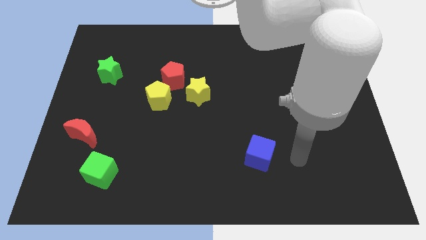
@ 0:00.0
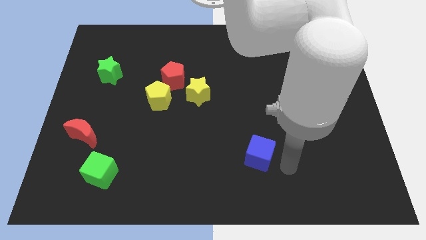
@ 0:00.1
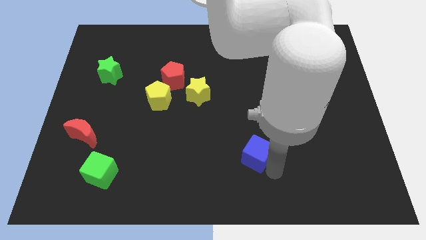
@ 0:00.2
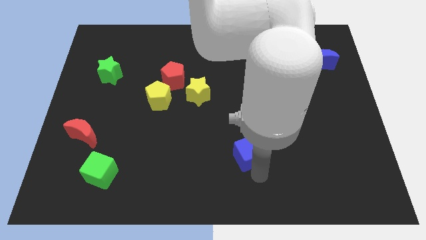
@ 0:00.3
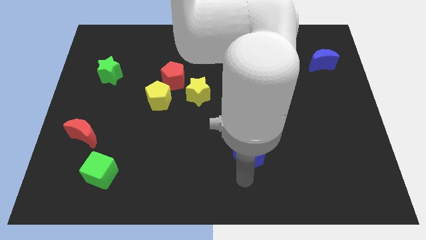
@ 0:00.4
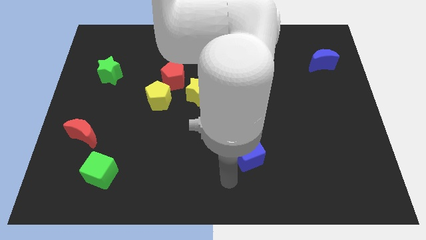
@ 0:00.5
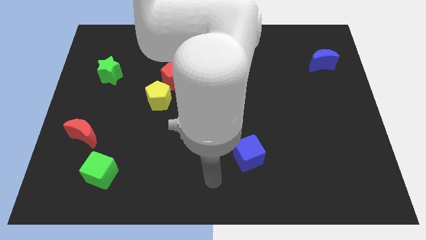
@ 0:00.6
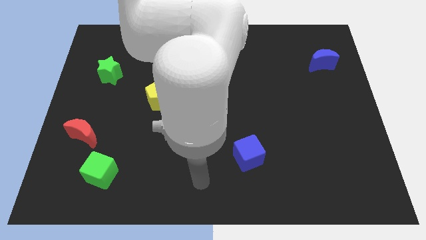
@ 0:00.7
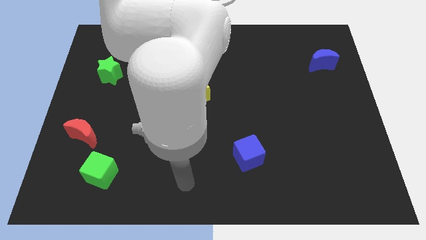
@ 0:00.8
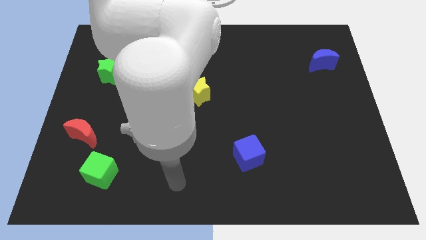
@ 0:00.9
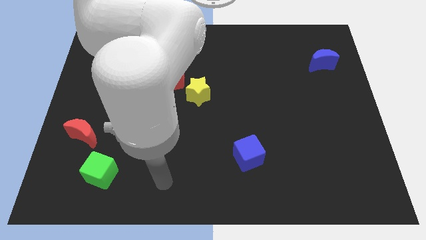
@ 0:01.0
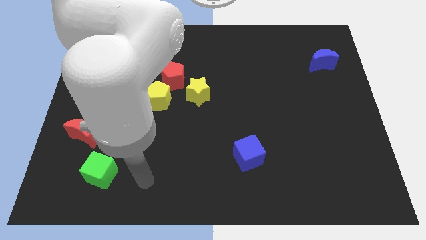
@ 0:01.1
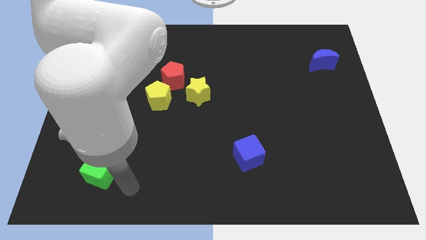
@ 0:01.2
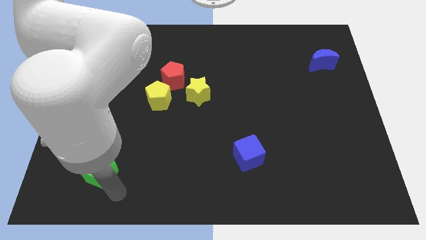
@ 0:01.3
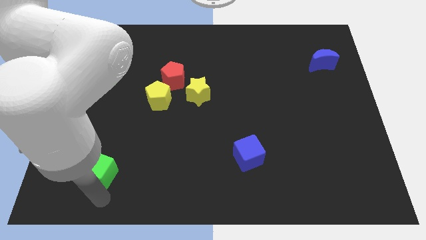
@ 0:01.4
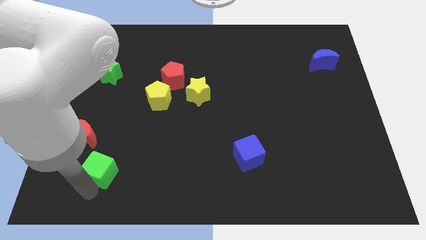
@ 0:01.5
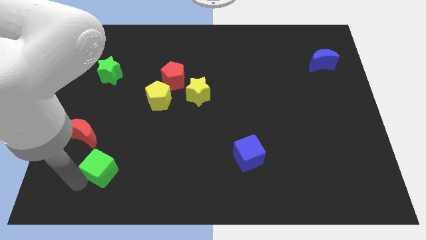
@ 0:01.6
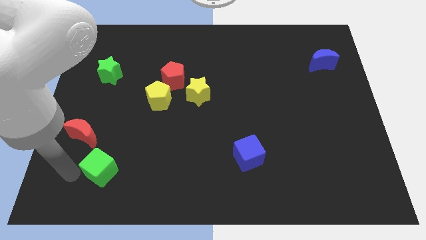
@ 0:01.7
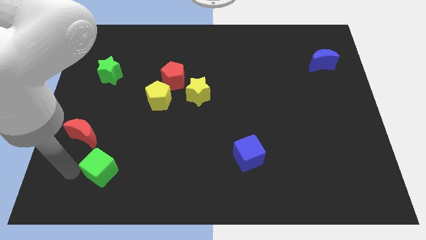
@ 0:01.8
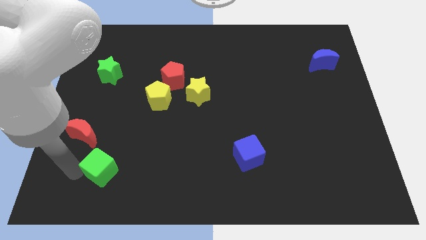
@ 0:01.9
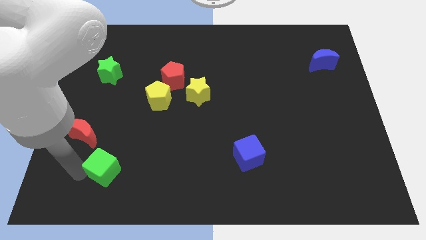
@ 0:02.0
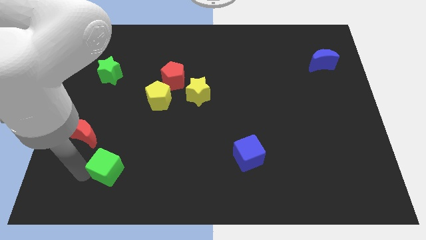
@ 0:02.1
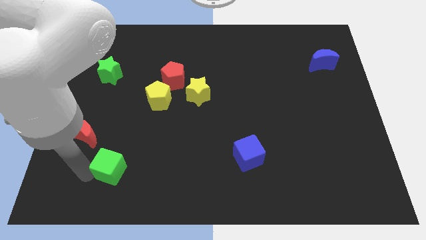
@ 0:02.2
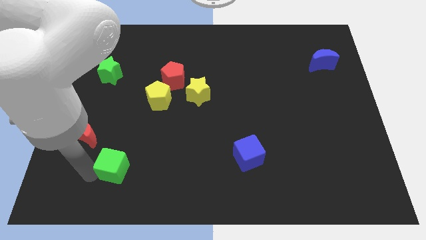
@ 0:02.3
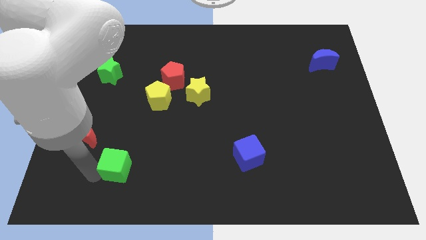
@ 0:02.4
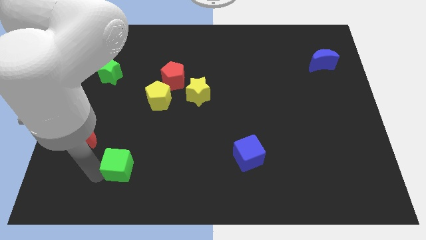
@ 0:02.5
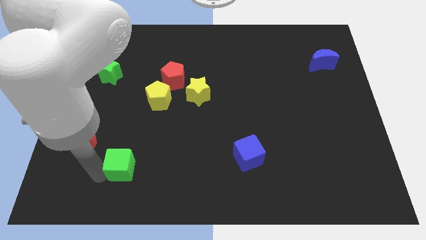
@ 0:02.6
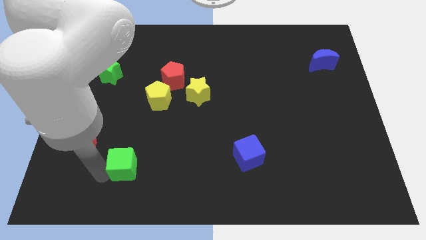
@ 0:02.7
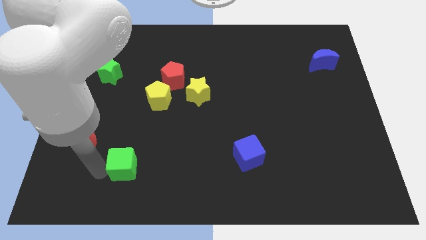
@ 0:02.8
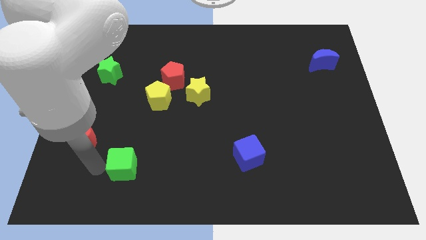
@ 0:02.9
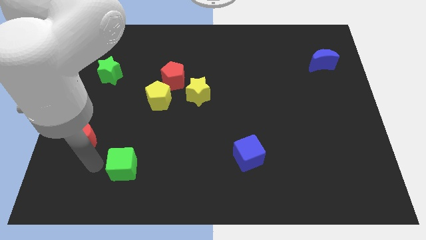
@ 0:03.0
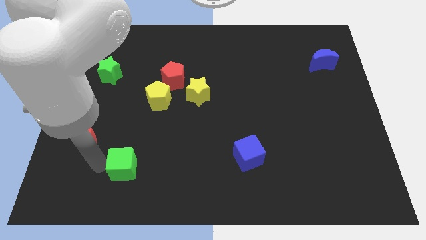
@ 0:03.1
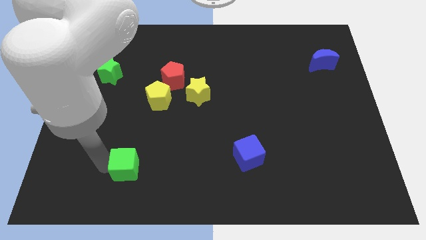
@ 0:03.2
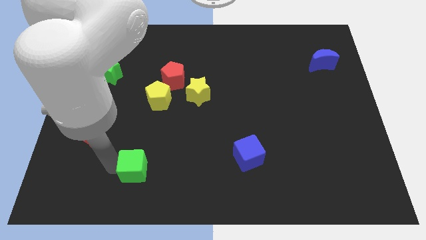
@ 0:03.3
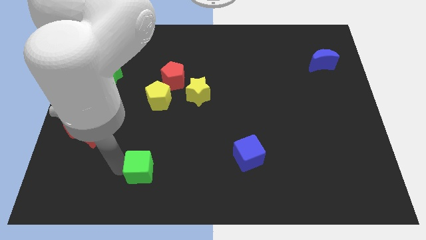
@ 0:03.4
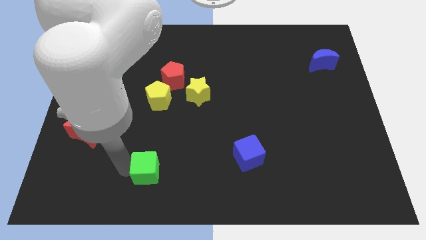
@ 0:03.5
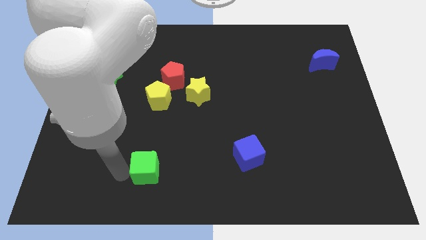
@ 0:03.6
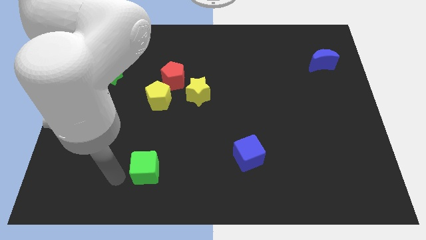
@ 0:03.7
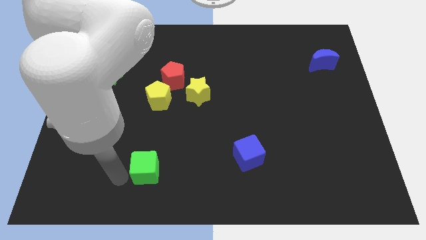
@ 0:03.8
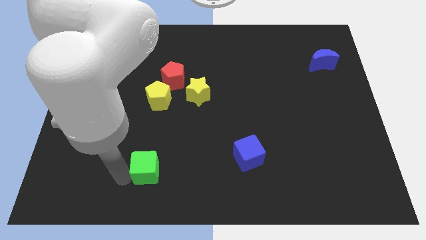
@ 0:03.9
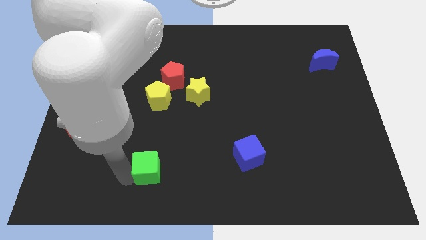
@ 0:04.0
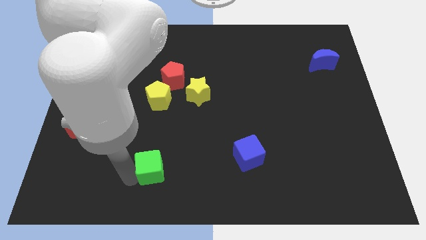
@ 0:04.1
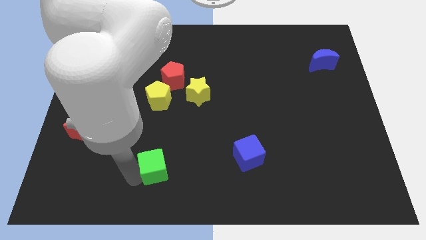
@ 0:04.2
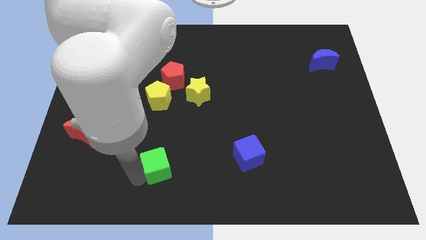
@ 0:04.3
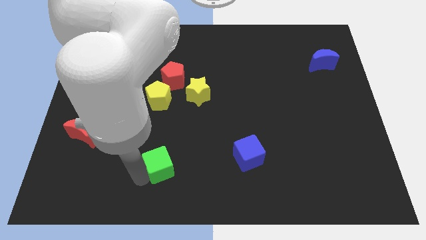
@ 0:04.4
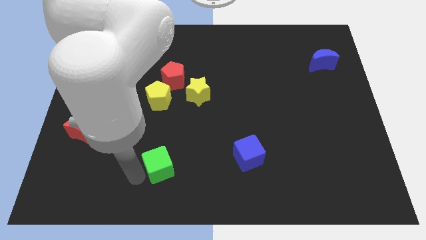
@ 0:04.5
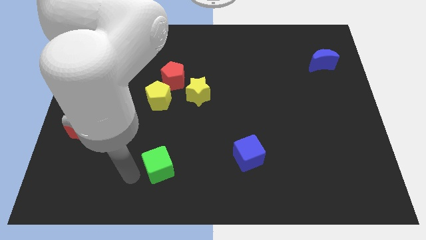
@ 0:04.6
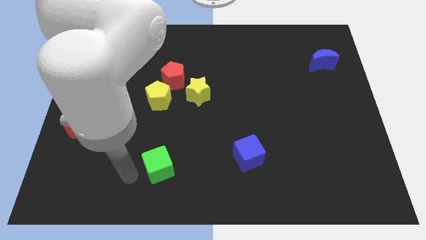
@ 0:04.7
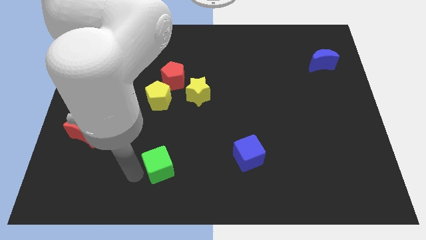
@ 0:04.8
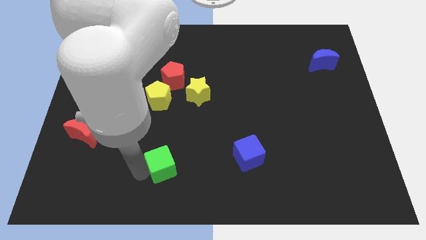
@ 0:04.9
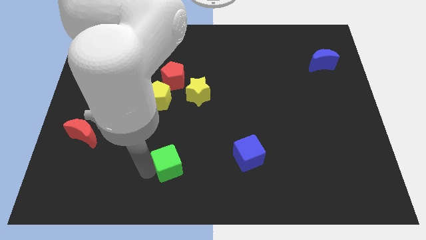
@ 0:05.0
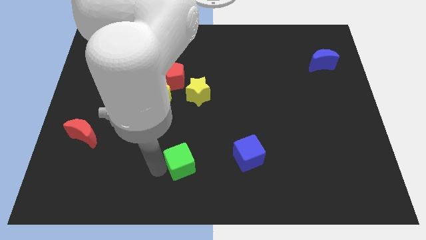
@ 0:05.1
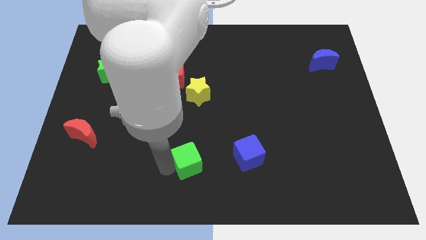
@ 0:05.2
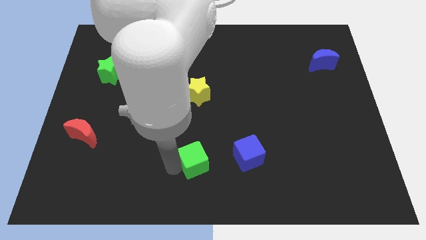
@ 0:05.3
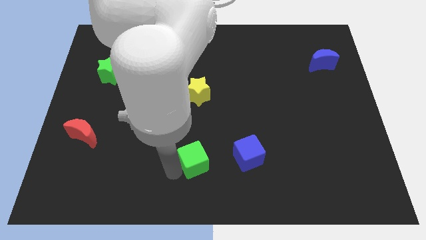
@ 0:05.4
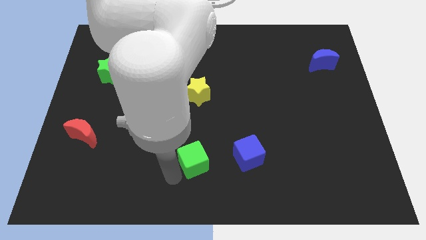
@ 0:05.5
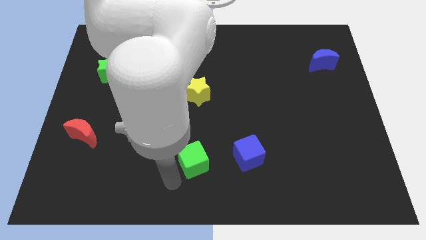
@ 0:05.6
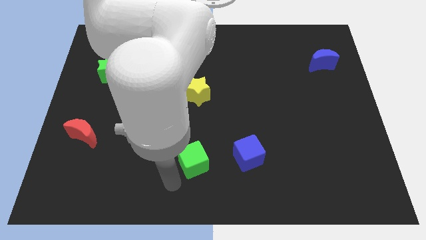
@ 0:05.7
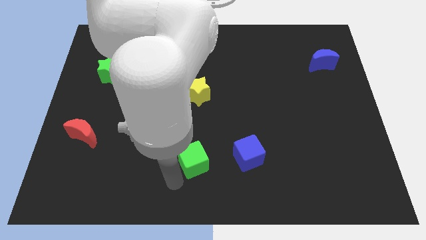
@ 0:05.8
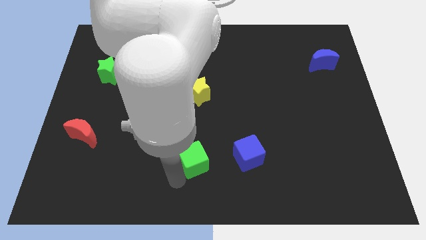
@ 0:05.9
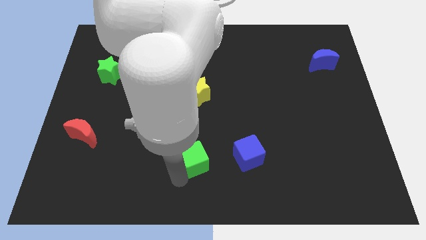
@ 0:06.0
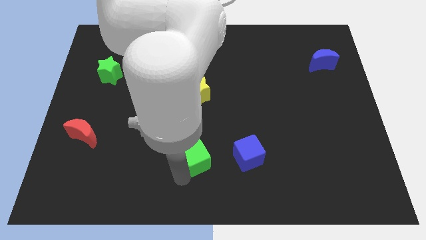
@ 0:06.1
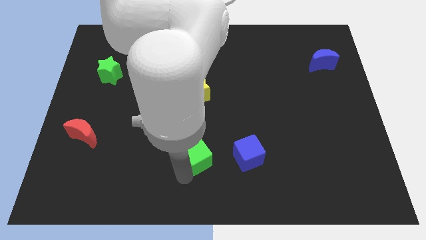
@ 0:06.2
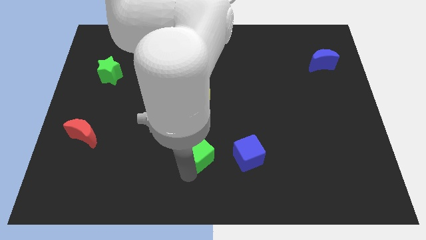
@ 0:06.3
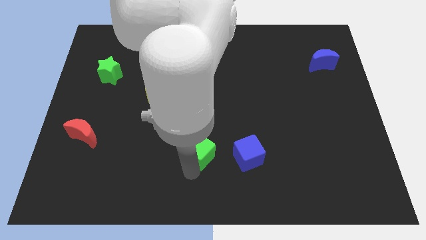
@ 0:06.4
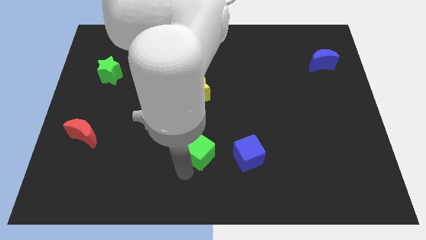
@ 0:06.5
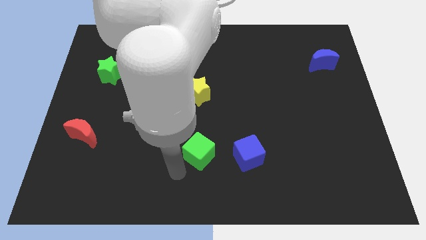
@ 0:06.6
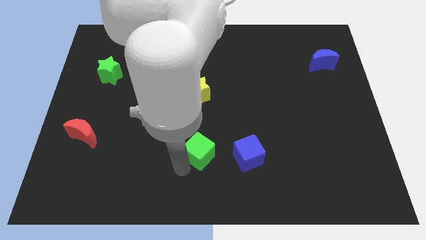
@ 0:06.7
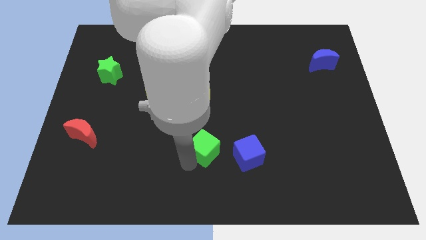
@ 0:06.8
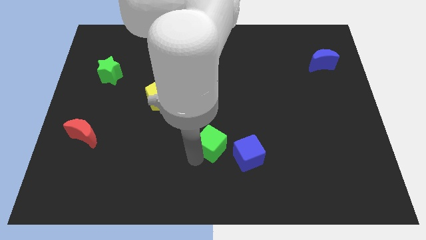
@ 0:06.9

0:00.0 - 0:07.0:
put the green cube to the top left side of the blue cube

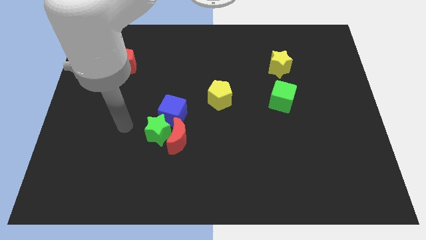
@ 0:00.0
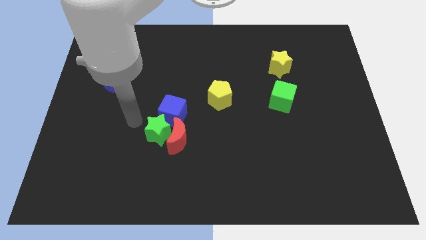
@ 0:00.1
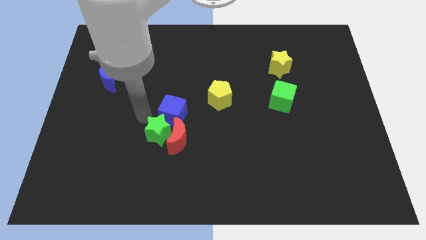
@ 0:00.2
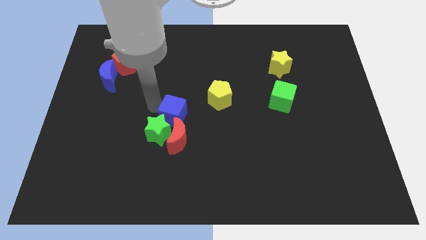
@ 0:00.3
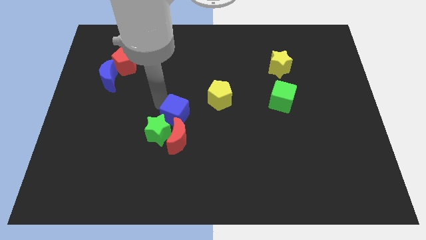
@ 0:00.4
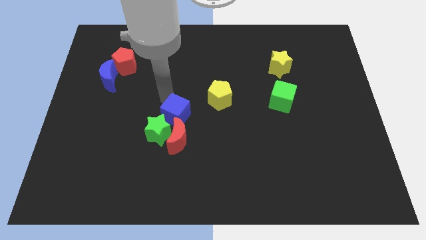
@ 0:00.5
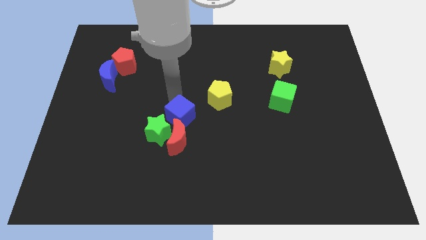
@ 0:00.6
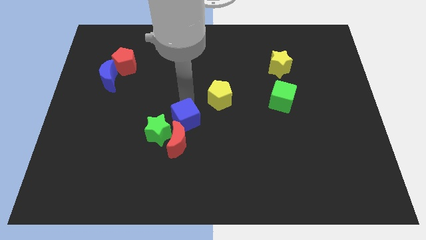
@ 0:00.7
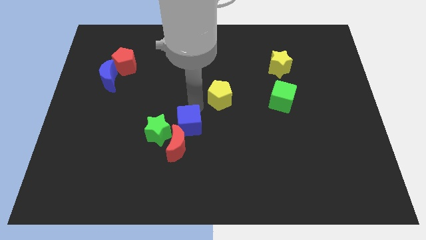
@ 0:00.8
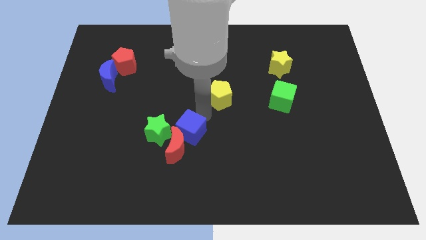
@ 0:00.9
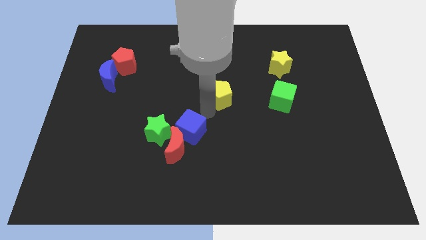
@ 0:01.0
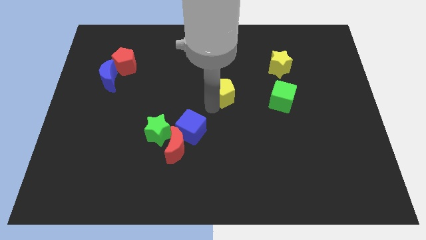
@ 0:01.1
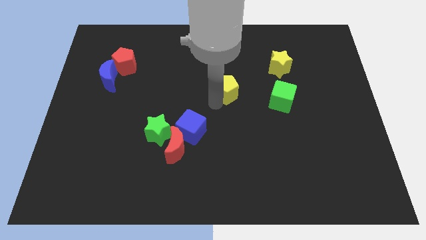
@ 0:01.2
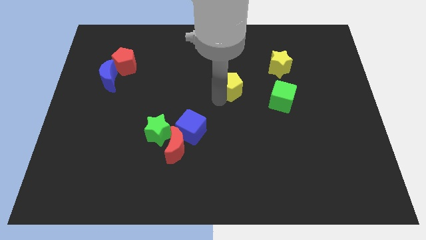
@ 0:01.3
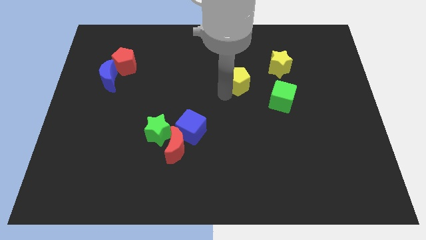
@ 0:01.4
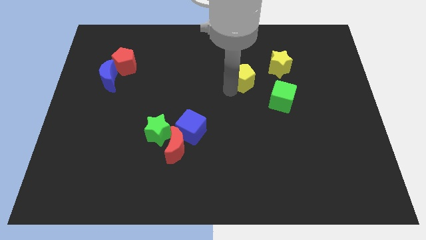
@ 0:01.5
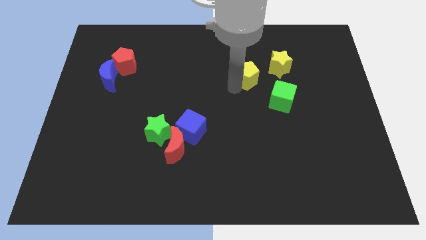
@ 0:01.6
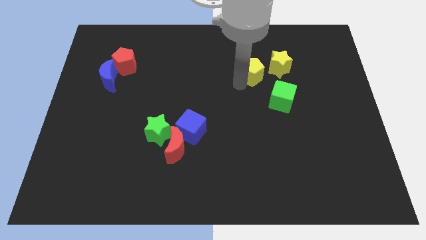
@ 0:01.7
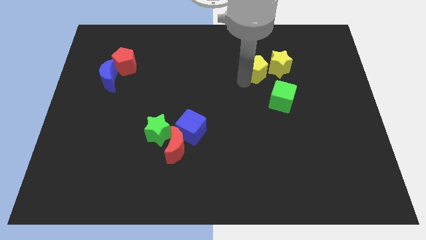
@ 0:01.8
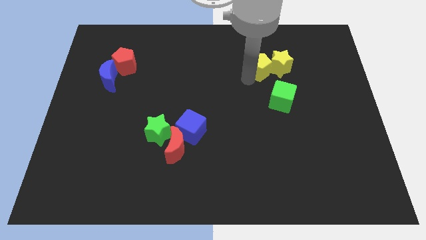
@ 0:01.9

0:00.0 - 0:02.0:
slide the yellow pentagon to the top side of the green cube
